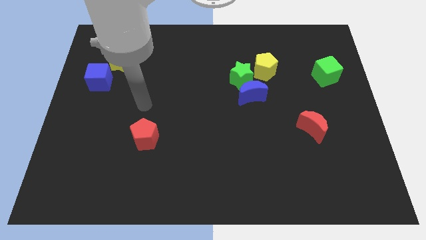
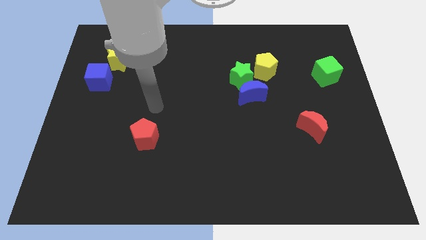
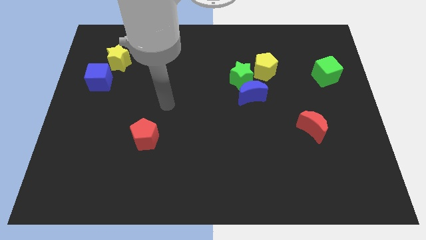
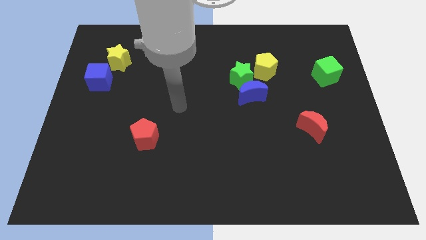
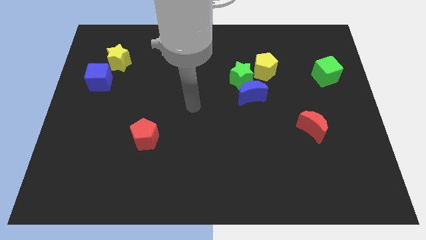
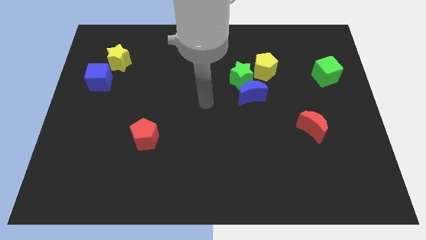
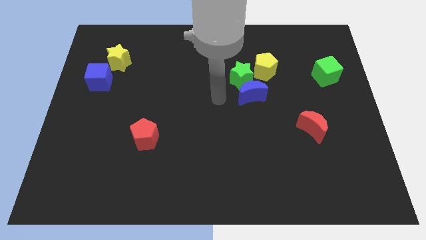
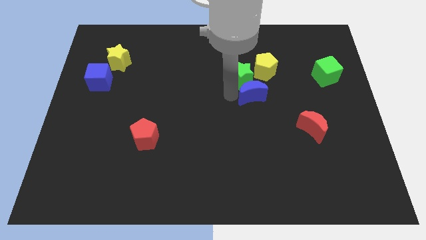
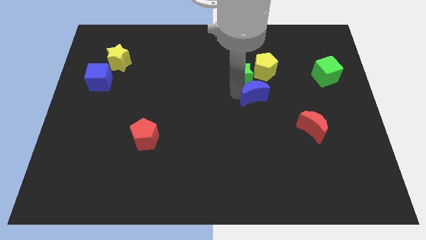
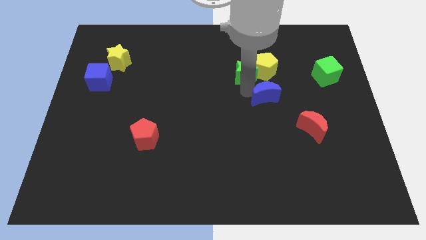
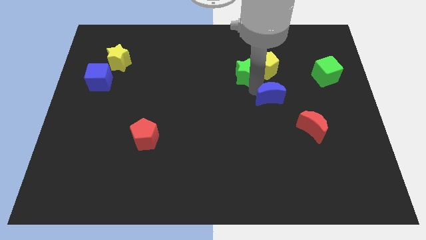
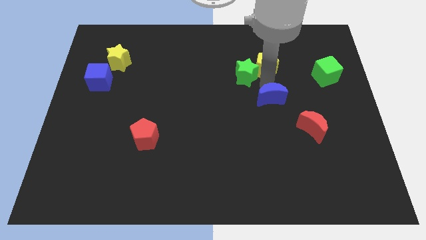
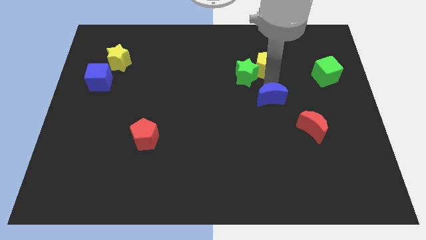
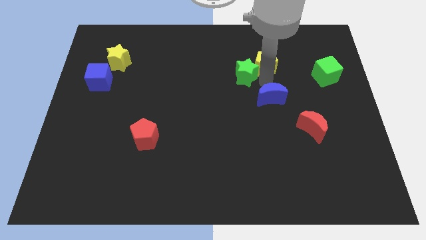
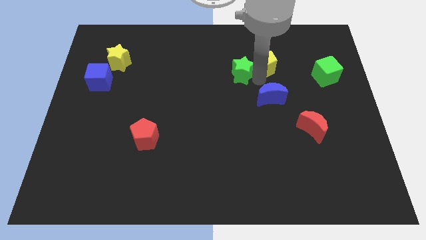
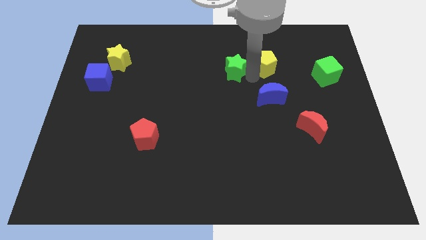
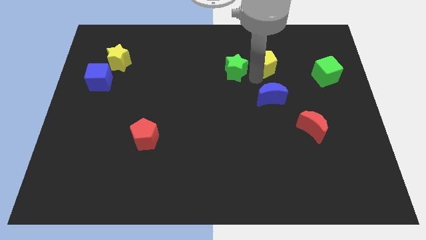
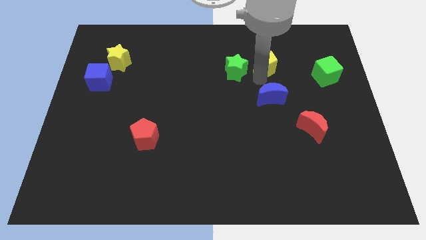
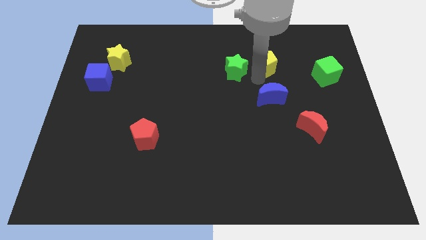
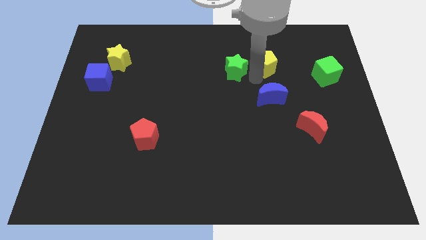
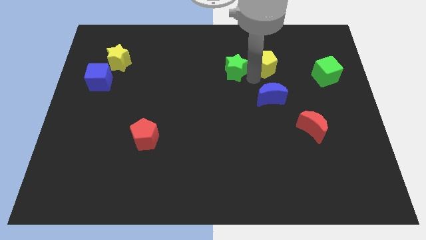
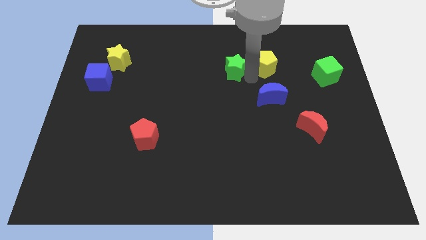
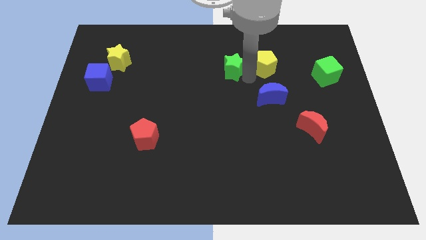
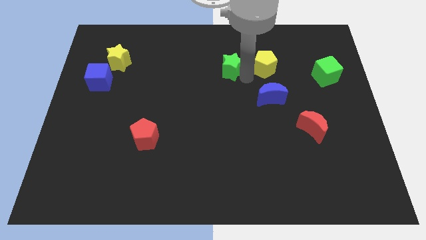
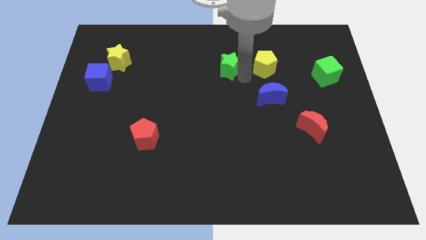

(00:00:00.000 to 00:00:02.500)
separate the green star from the blue moon and yellow pentagon

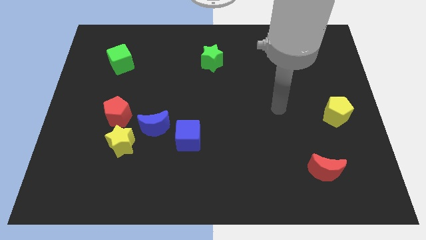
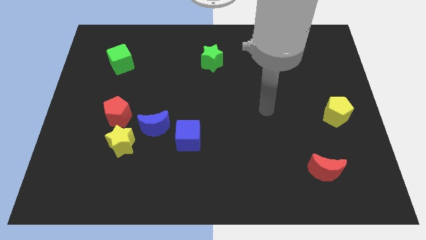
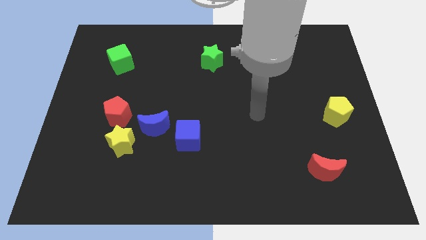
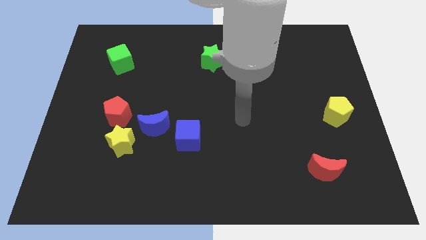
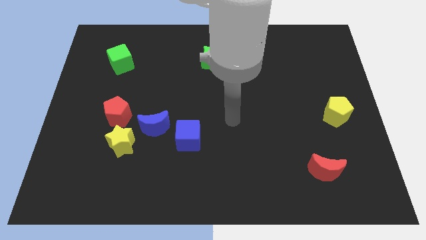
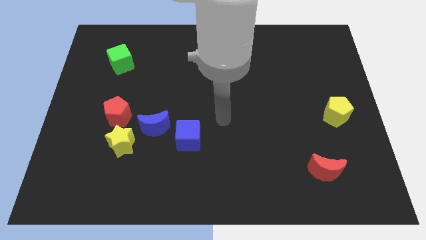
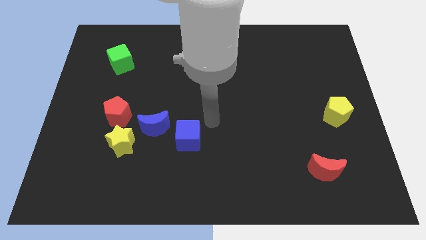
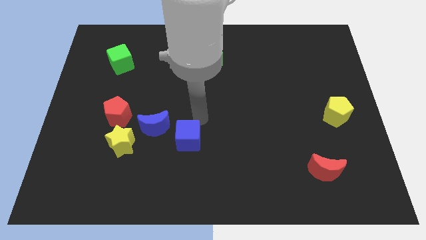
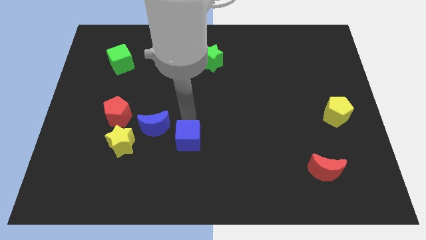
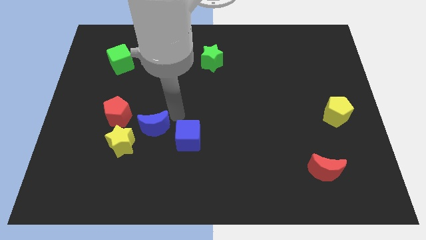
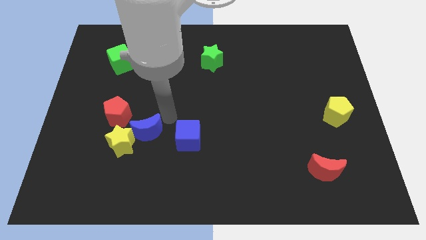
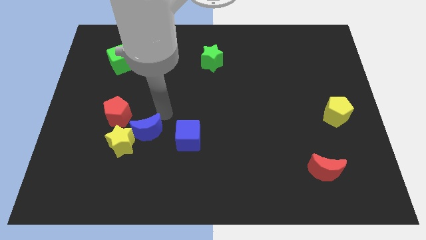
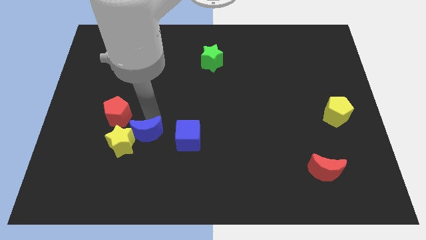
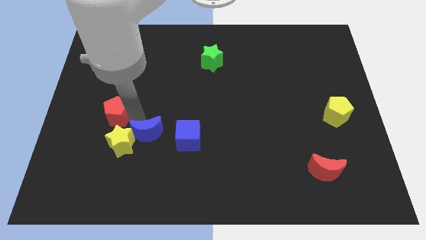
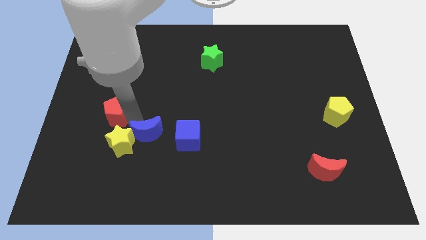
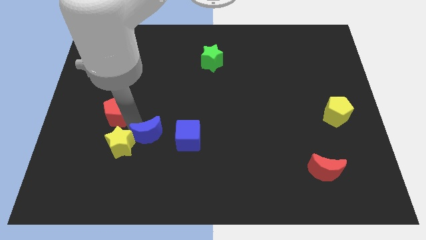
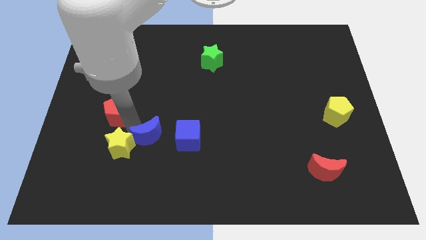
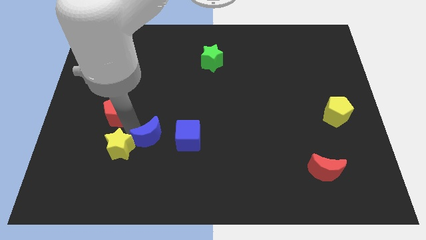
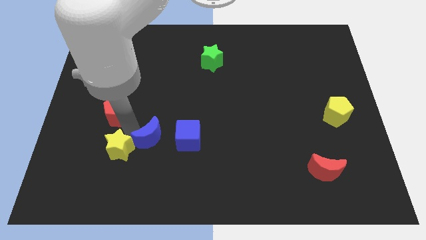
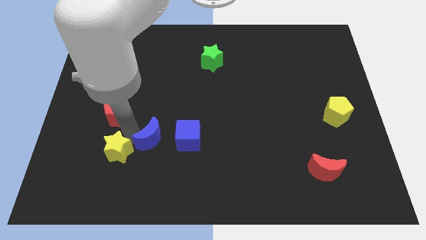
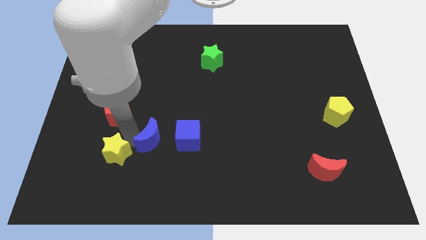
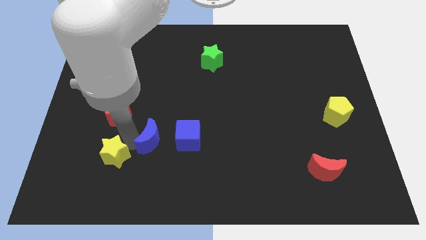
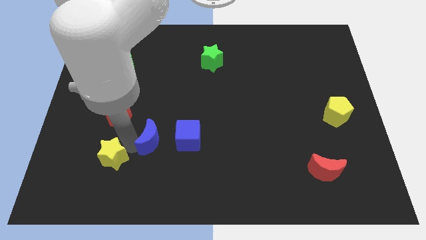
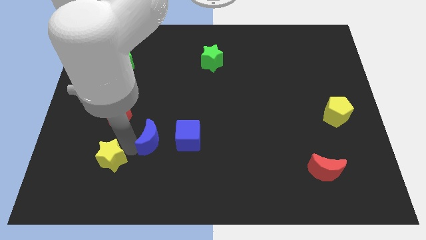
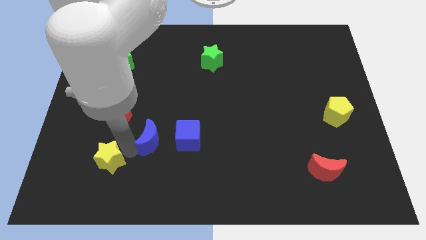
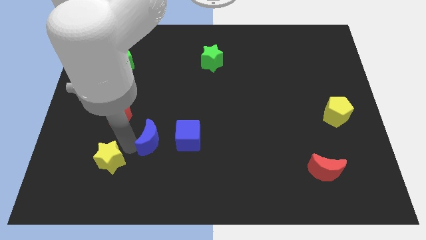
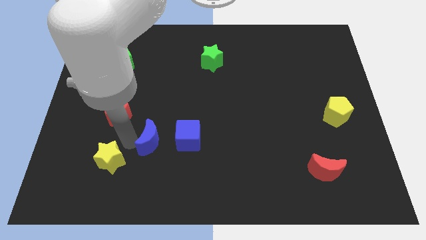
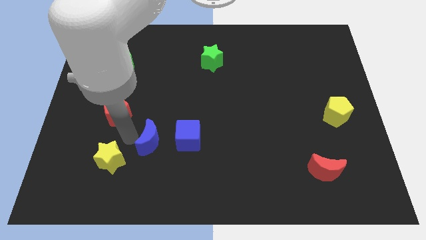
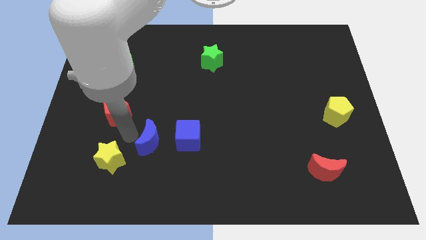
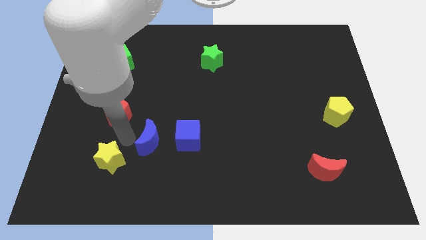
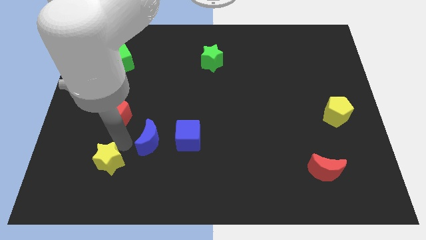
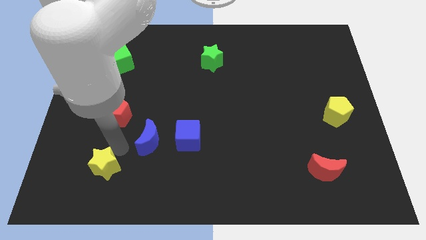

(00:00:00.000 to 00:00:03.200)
separate the yellow star from the red pentagon and blue moon

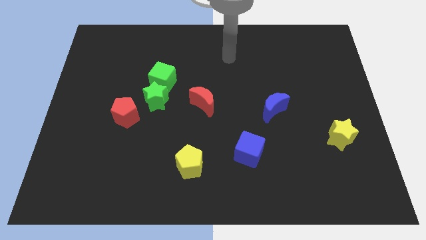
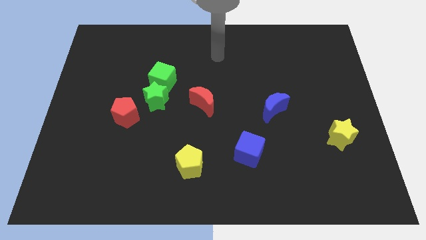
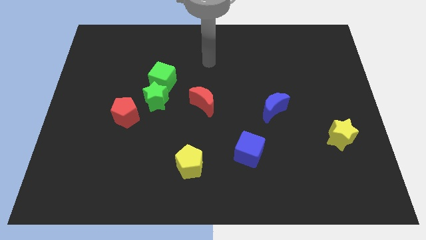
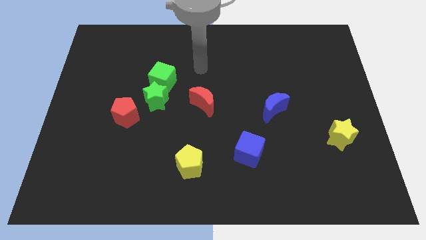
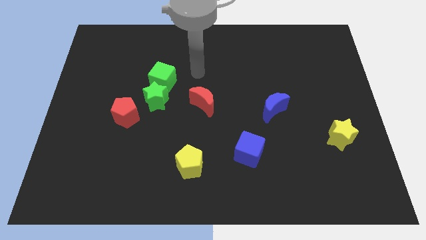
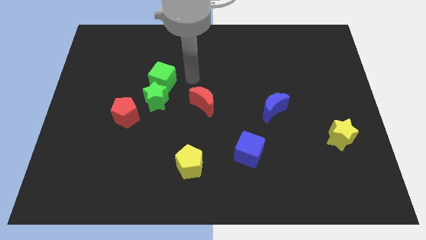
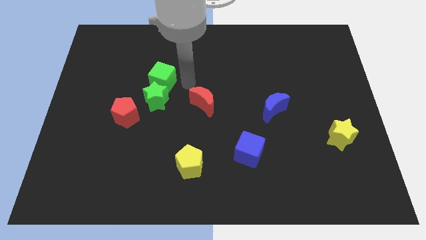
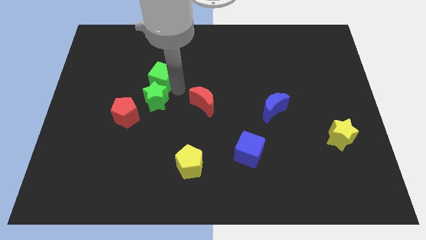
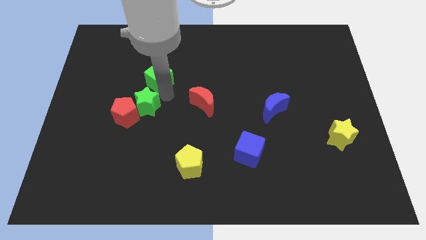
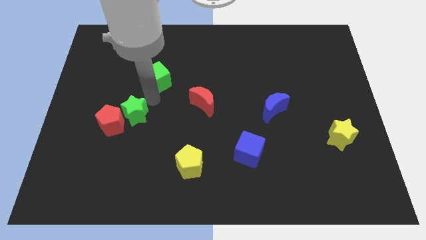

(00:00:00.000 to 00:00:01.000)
pull the green cube apart from the green star

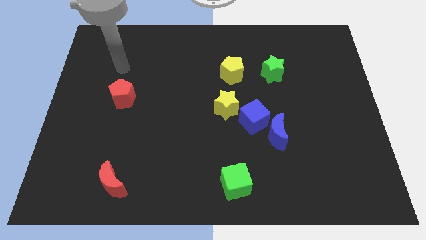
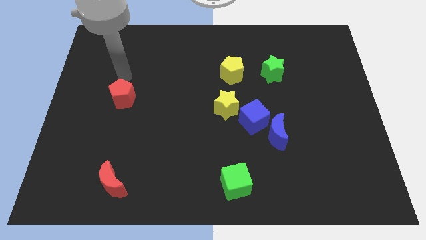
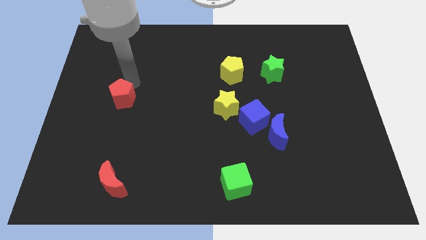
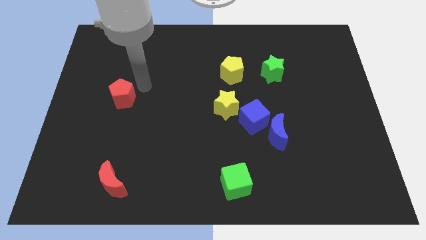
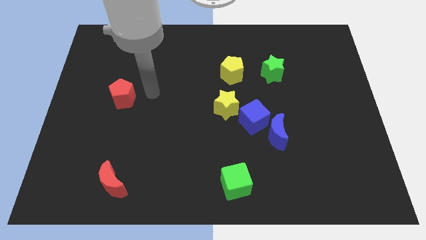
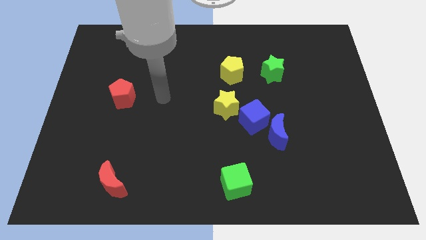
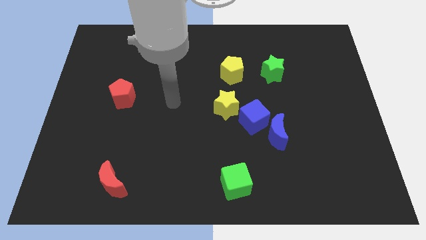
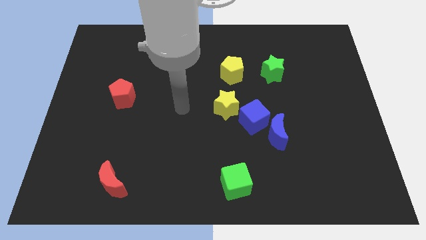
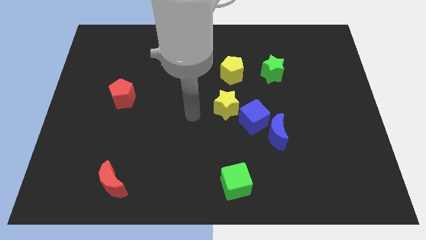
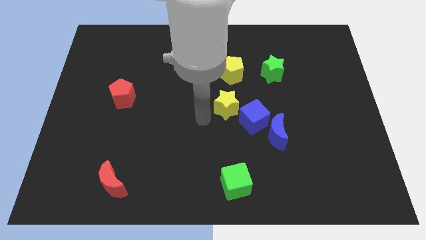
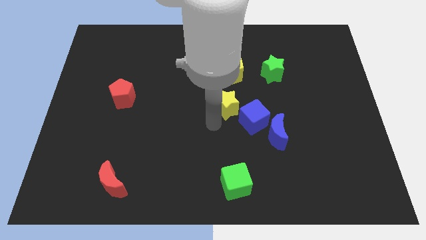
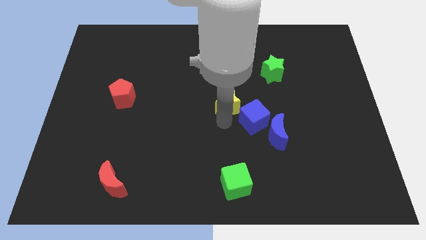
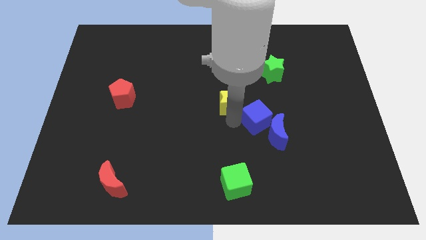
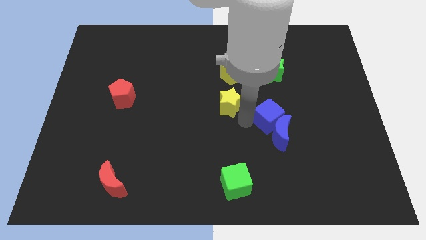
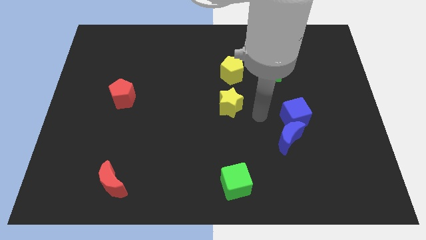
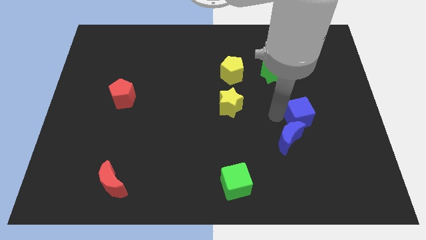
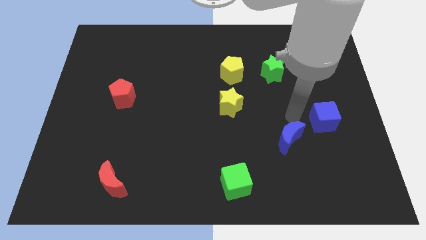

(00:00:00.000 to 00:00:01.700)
move the blue moon away from the blue cube

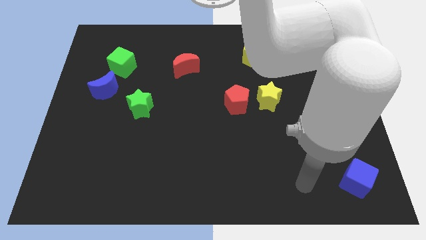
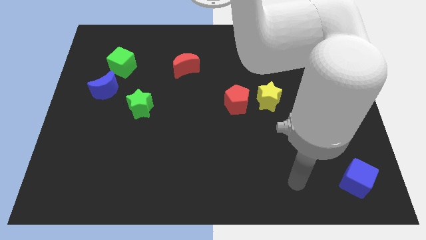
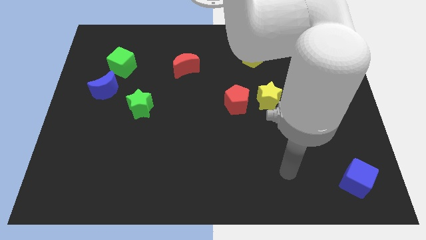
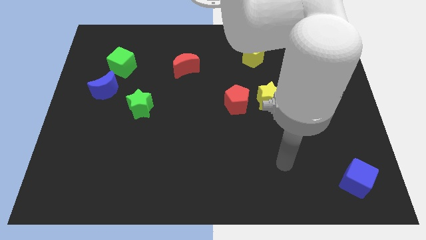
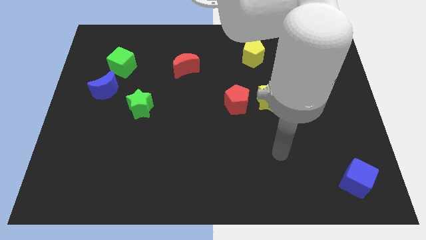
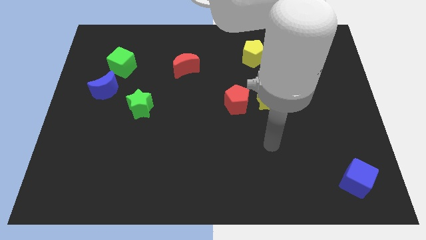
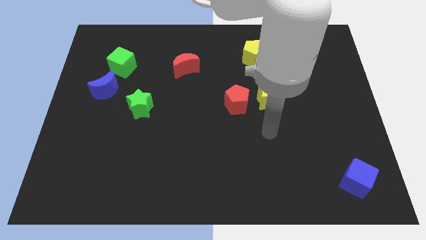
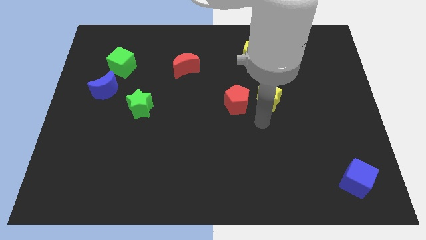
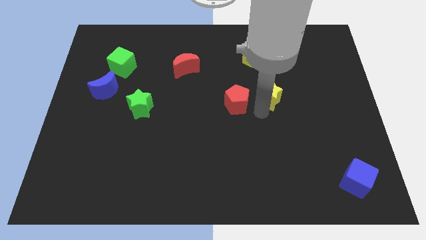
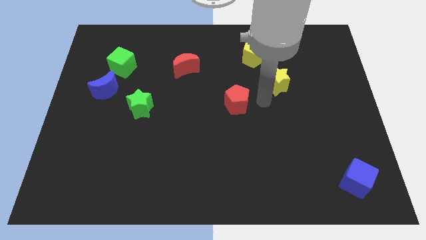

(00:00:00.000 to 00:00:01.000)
move the red pentagon away from the yellow star
